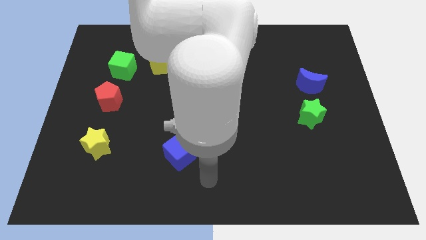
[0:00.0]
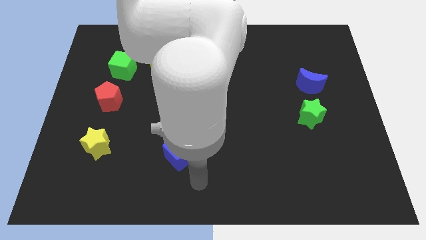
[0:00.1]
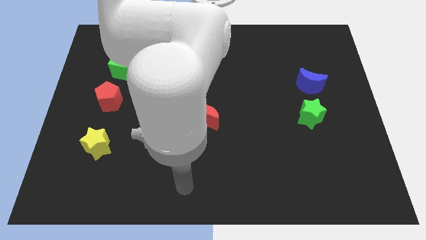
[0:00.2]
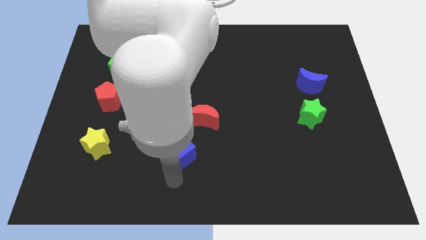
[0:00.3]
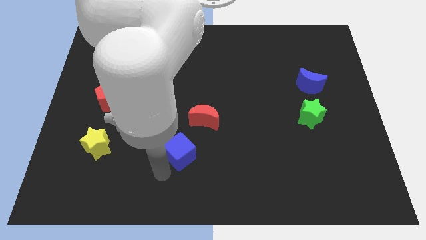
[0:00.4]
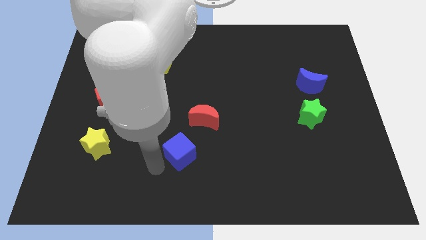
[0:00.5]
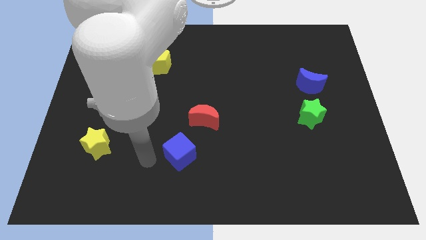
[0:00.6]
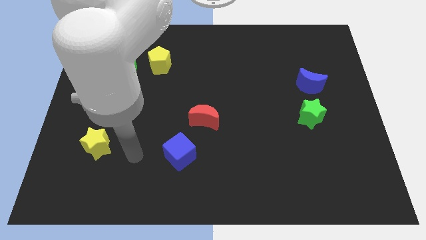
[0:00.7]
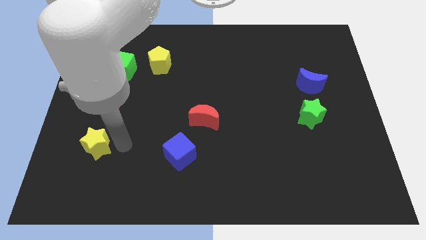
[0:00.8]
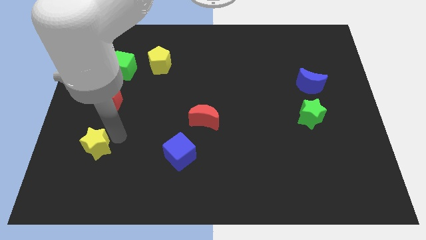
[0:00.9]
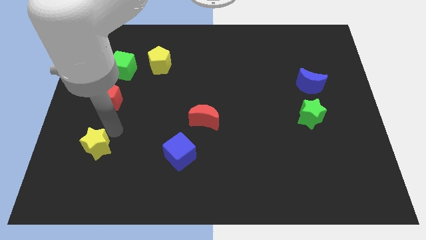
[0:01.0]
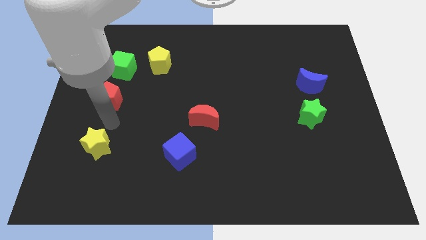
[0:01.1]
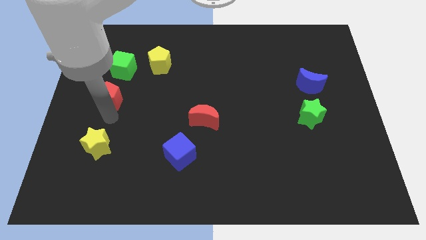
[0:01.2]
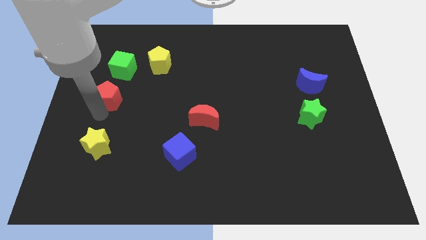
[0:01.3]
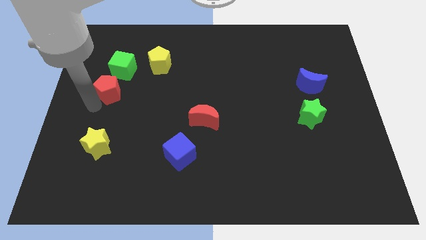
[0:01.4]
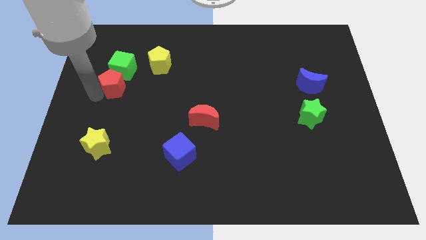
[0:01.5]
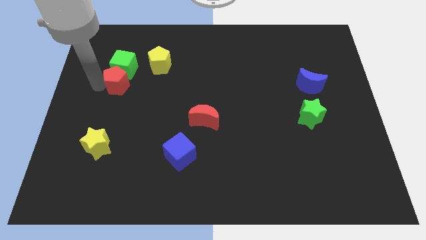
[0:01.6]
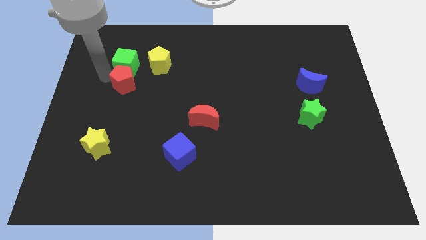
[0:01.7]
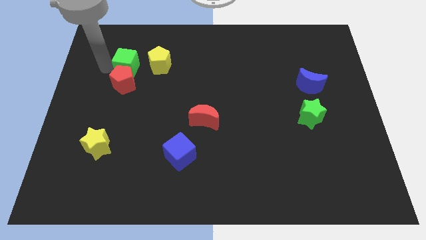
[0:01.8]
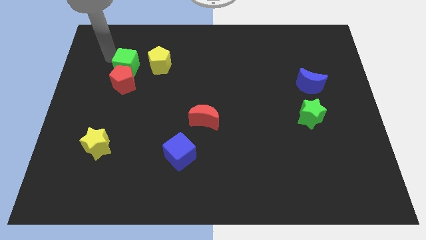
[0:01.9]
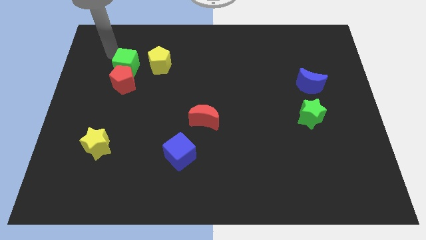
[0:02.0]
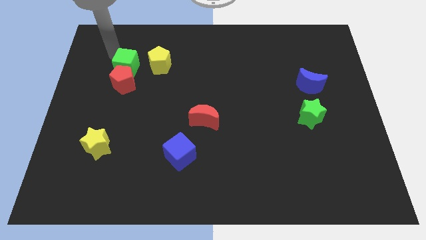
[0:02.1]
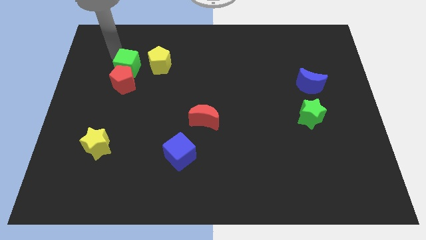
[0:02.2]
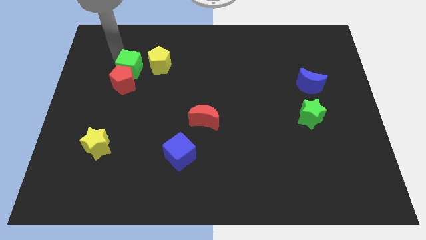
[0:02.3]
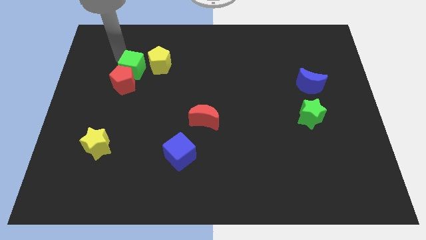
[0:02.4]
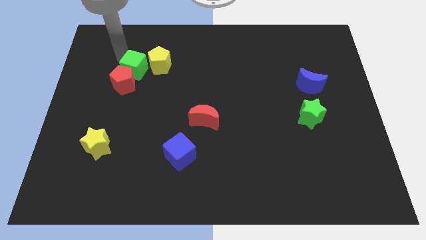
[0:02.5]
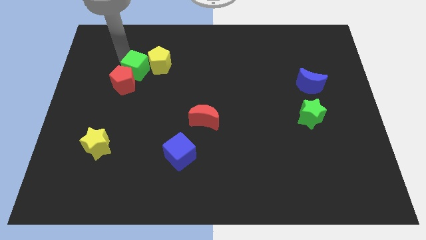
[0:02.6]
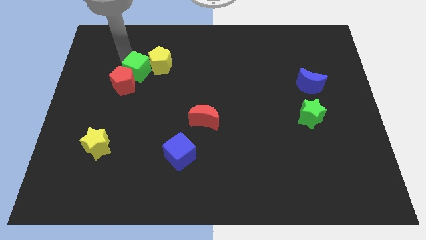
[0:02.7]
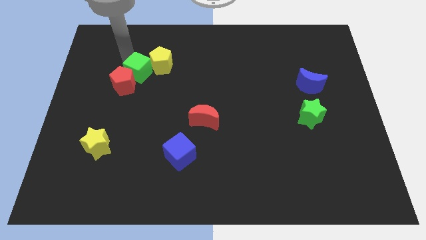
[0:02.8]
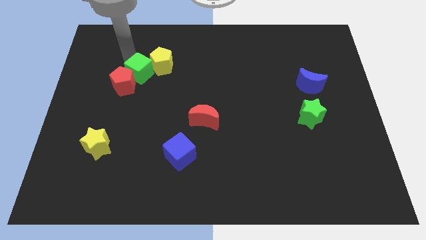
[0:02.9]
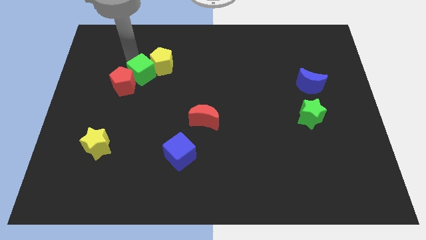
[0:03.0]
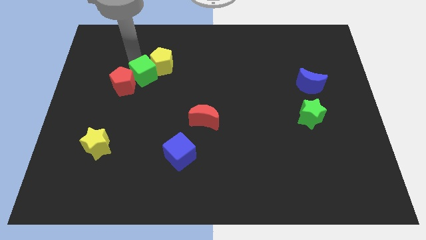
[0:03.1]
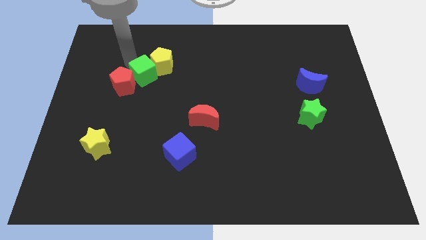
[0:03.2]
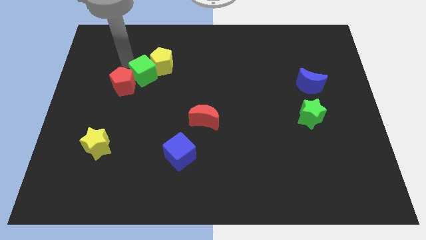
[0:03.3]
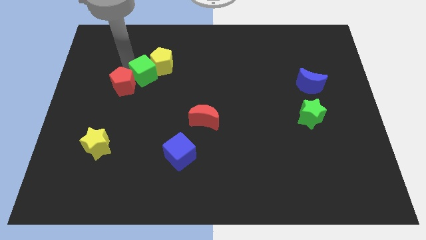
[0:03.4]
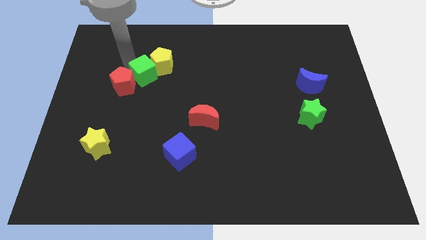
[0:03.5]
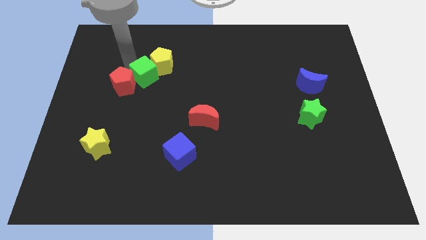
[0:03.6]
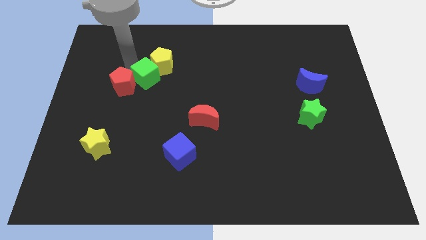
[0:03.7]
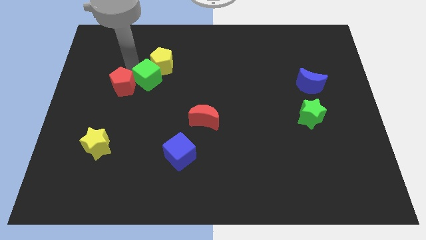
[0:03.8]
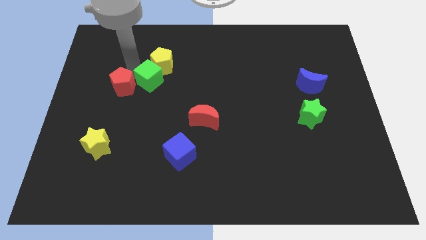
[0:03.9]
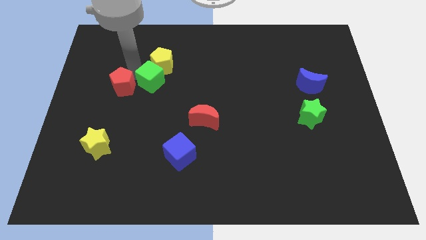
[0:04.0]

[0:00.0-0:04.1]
push the green cube right a bit

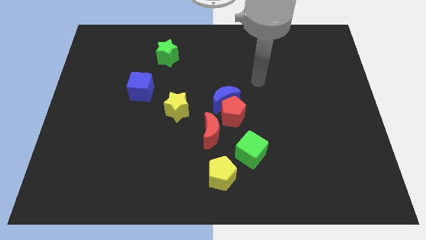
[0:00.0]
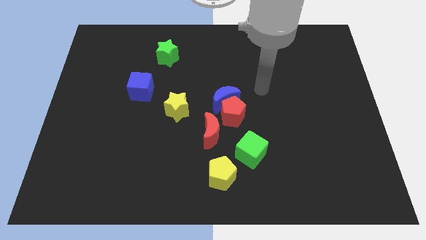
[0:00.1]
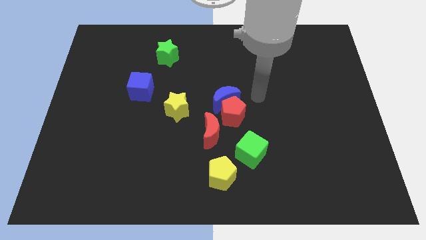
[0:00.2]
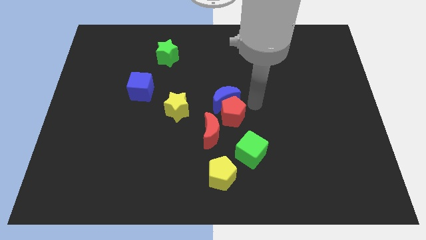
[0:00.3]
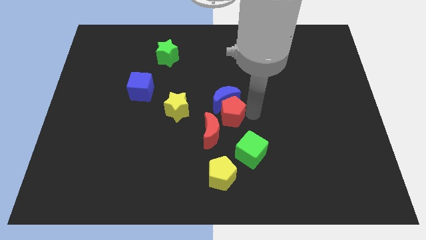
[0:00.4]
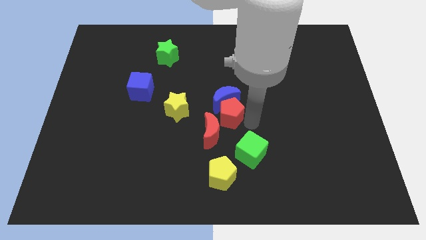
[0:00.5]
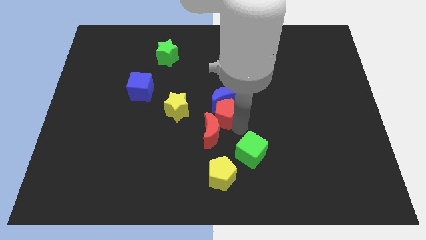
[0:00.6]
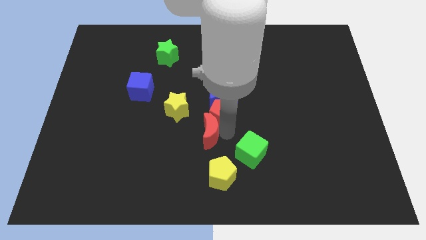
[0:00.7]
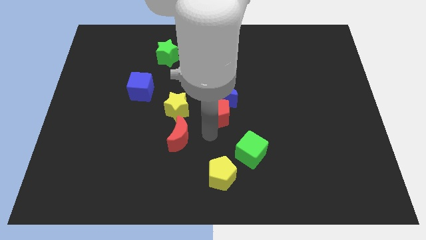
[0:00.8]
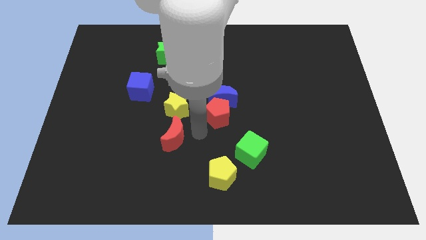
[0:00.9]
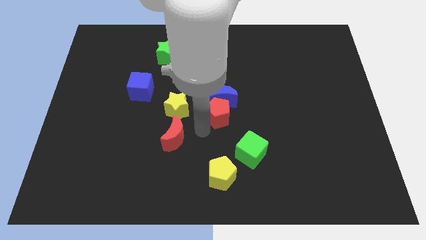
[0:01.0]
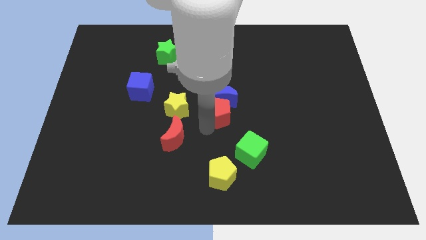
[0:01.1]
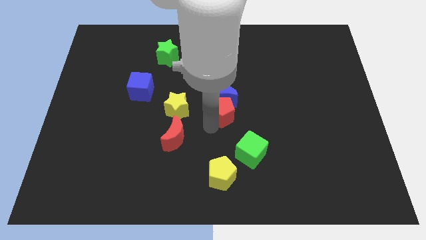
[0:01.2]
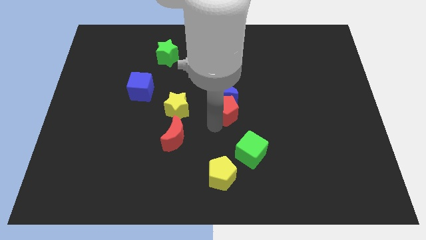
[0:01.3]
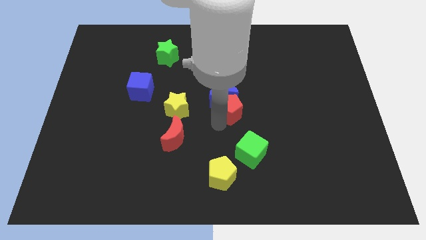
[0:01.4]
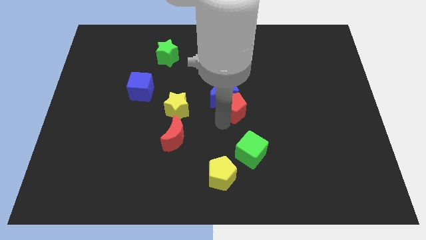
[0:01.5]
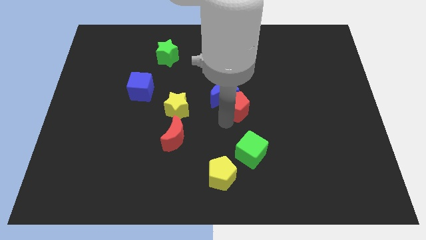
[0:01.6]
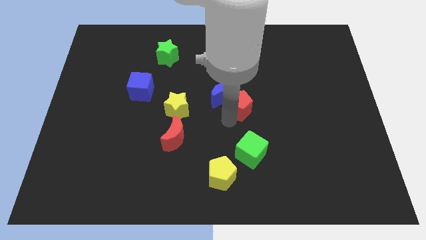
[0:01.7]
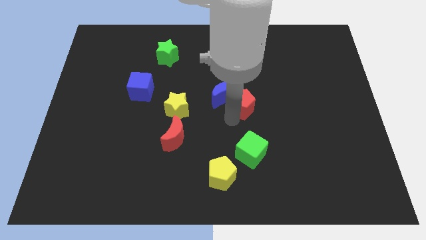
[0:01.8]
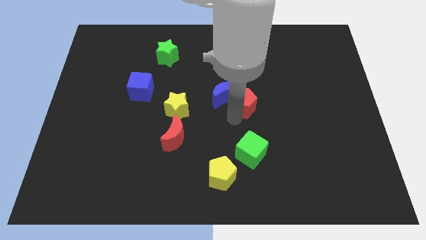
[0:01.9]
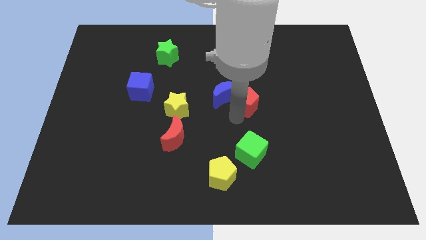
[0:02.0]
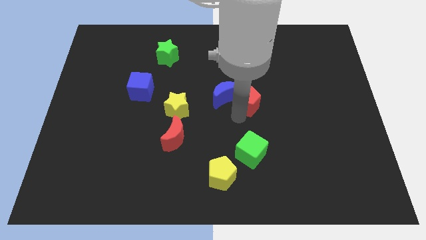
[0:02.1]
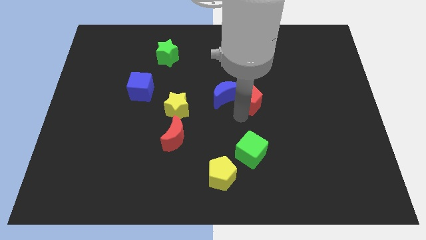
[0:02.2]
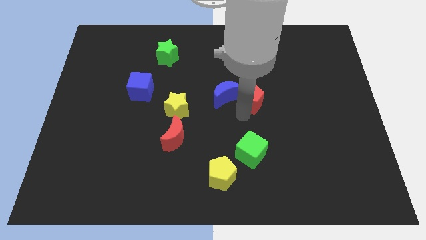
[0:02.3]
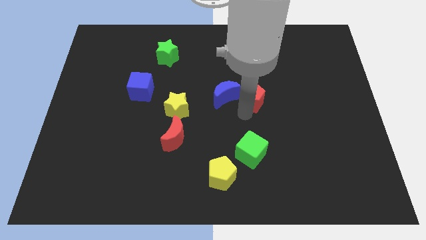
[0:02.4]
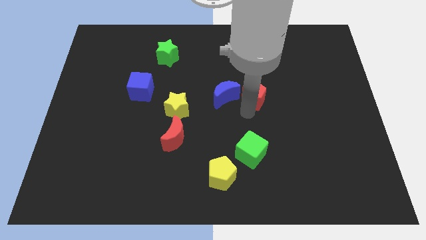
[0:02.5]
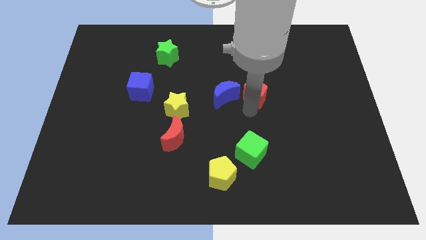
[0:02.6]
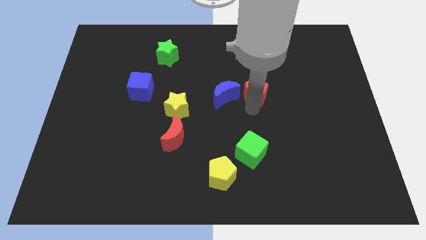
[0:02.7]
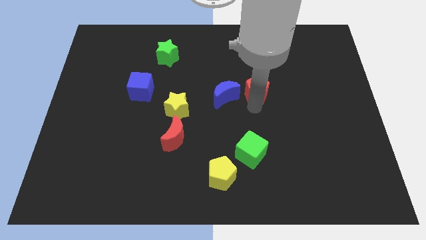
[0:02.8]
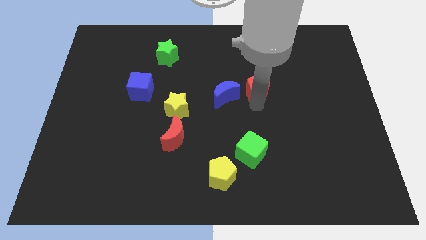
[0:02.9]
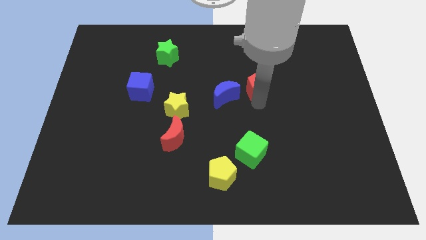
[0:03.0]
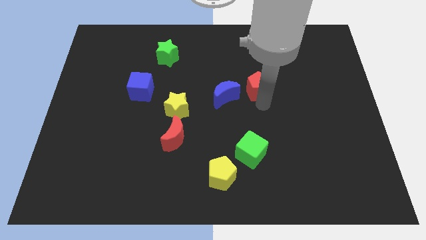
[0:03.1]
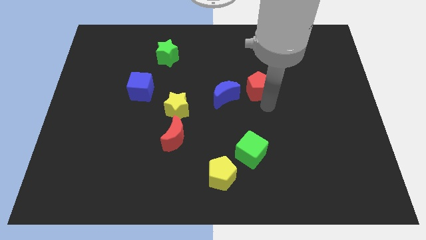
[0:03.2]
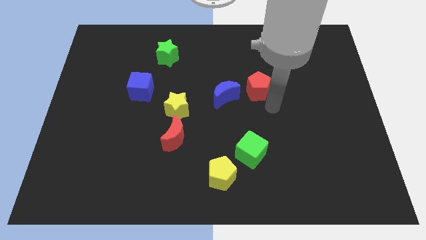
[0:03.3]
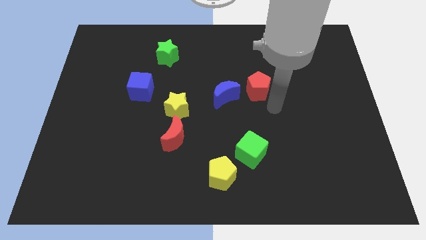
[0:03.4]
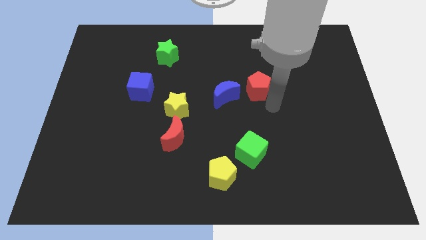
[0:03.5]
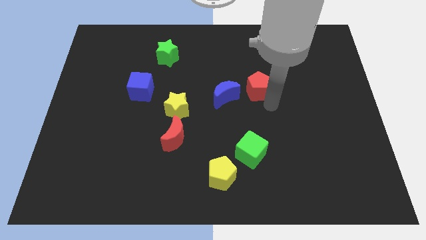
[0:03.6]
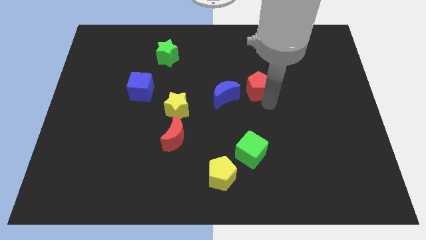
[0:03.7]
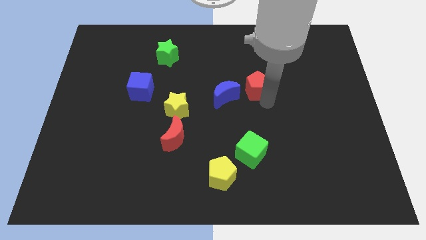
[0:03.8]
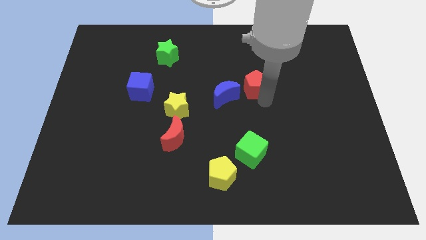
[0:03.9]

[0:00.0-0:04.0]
slightly slide the red pentagon upwards
